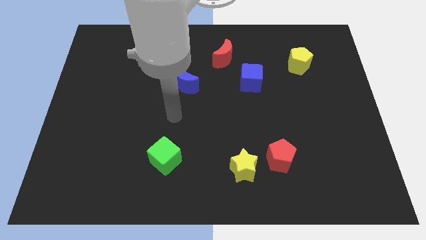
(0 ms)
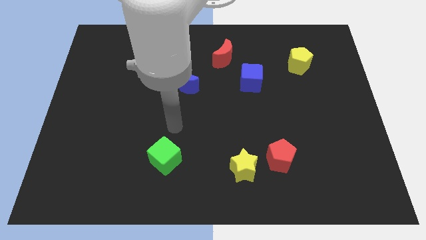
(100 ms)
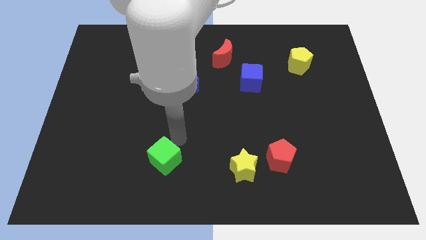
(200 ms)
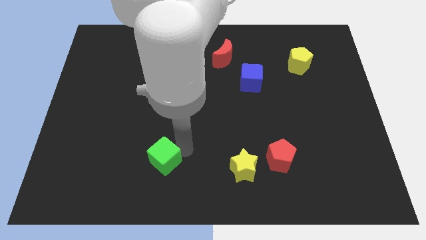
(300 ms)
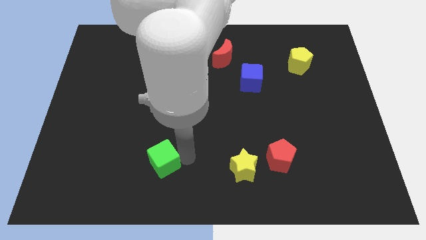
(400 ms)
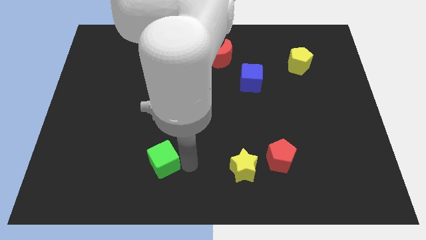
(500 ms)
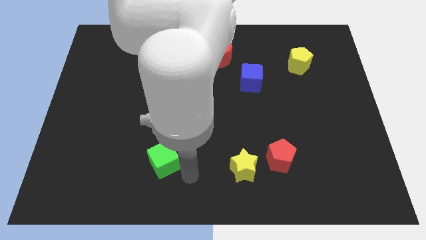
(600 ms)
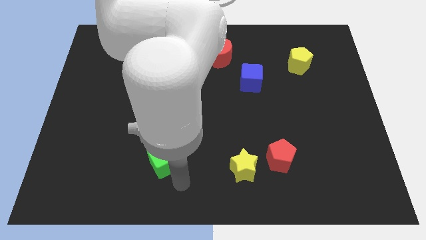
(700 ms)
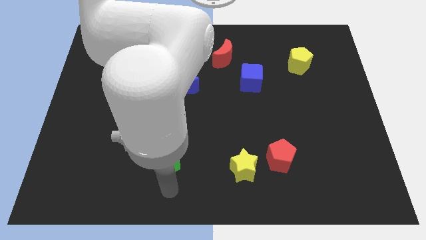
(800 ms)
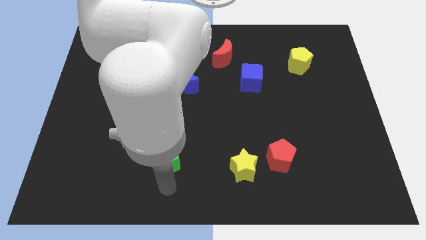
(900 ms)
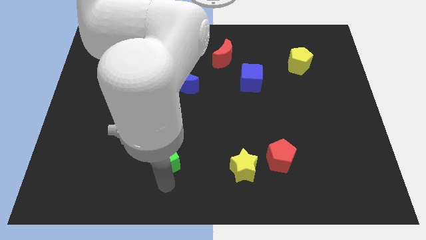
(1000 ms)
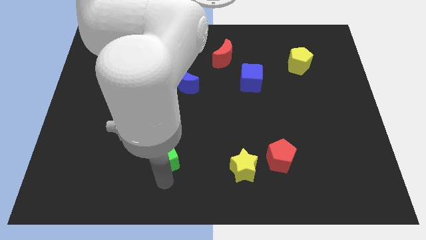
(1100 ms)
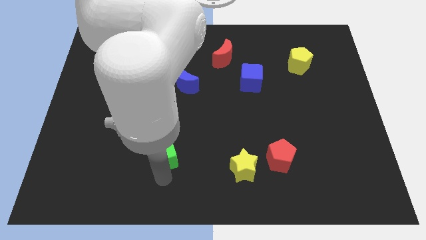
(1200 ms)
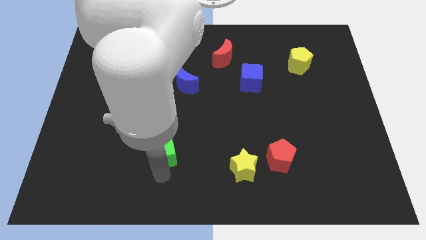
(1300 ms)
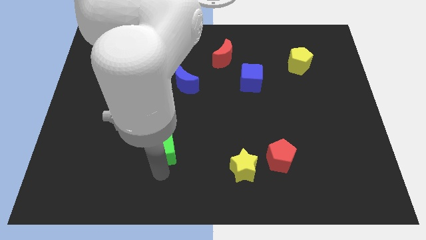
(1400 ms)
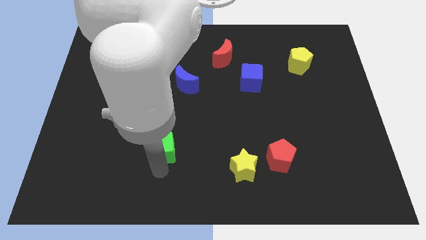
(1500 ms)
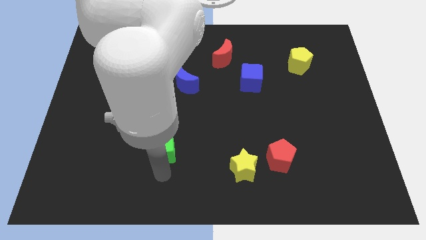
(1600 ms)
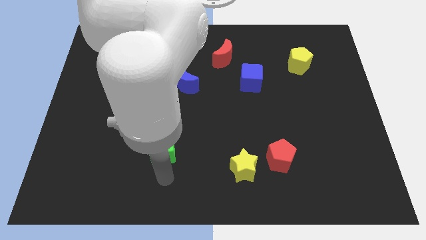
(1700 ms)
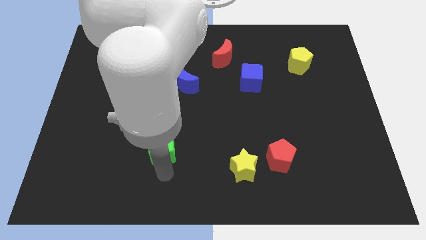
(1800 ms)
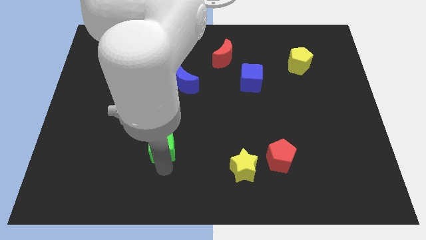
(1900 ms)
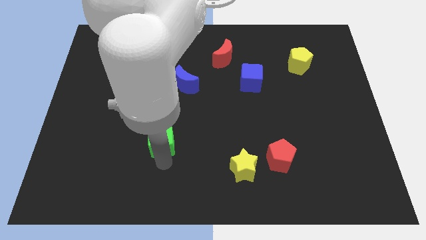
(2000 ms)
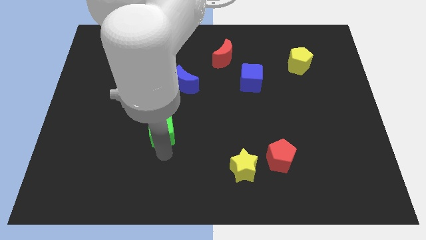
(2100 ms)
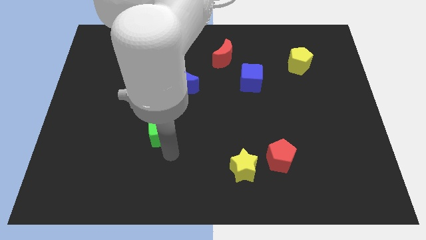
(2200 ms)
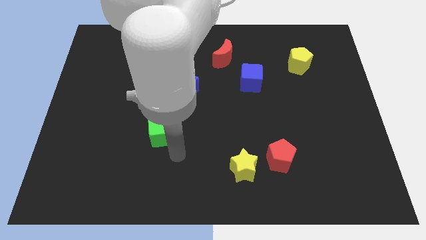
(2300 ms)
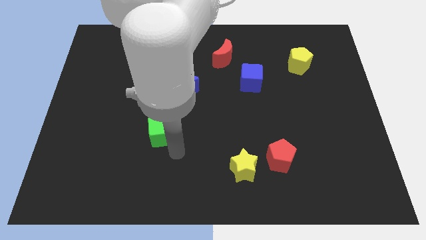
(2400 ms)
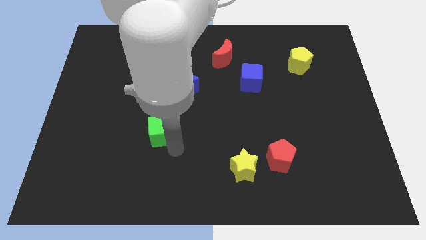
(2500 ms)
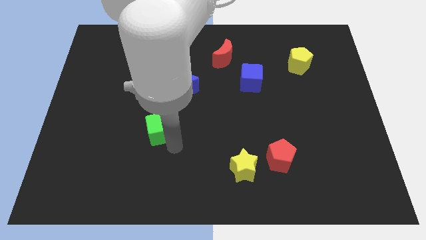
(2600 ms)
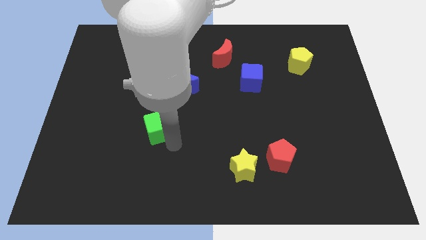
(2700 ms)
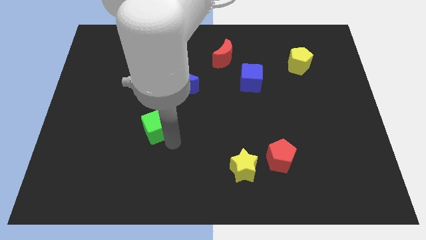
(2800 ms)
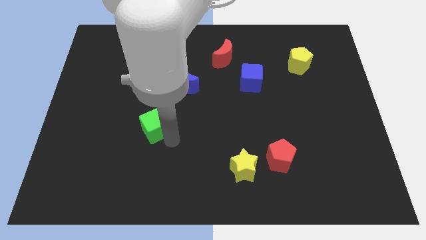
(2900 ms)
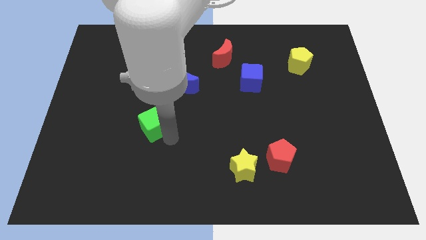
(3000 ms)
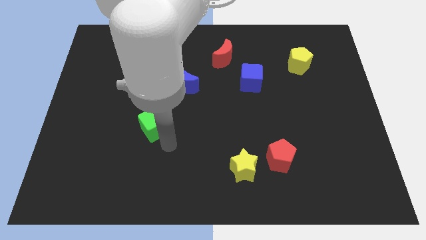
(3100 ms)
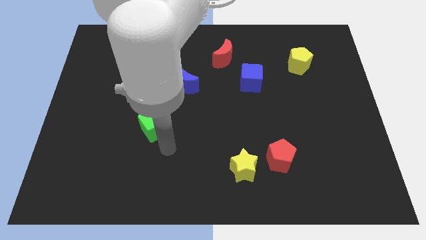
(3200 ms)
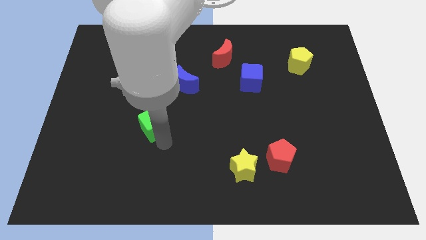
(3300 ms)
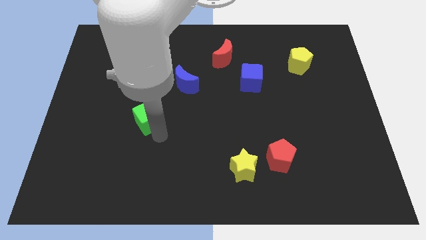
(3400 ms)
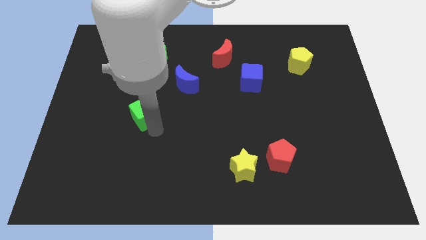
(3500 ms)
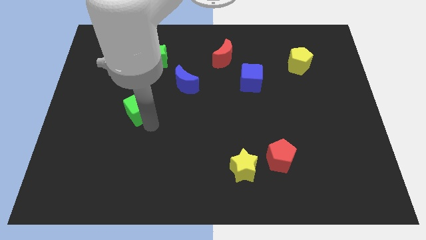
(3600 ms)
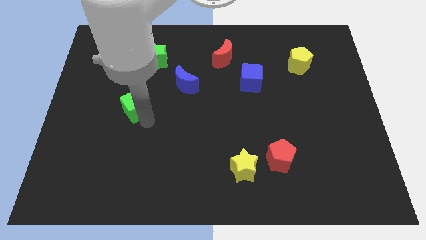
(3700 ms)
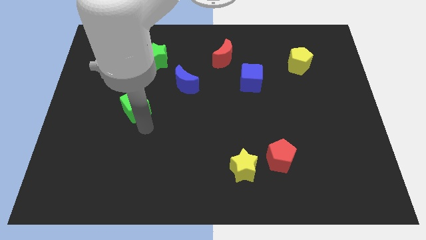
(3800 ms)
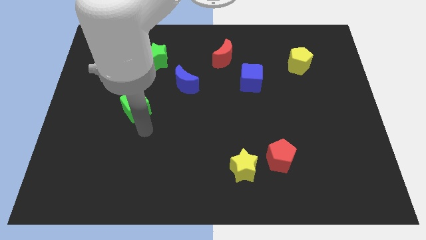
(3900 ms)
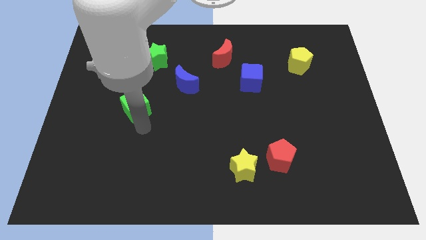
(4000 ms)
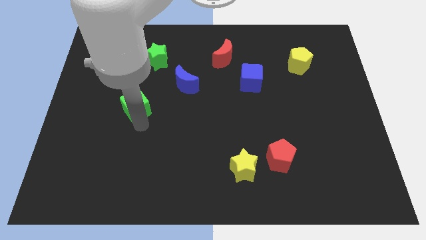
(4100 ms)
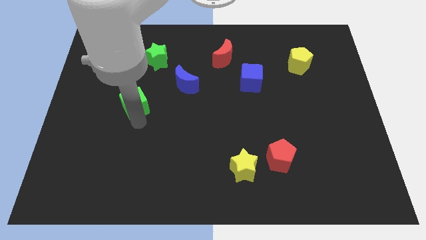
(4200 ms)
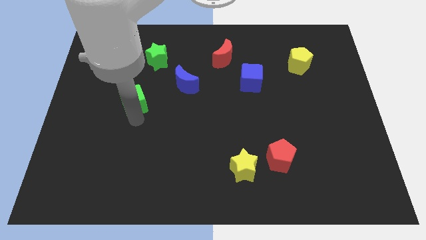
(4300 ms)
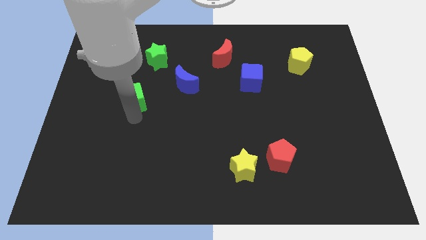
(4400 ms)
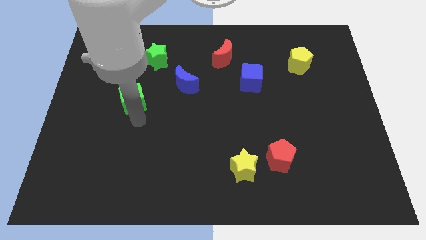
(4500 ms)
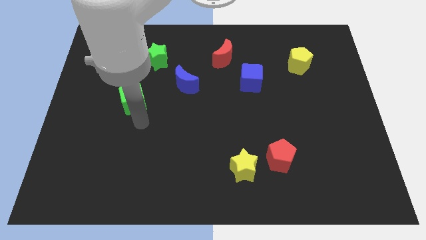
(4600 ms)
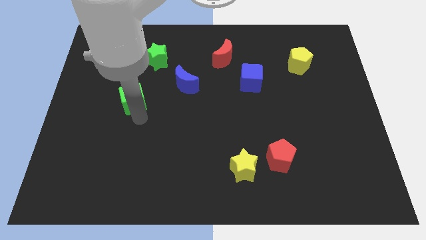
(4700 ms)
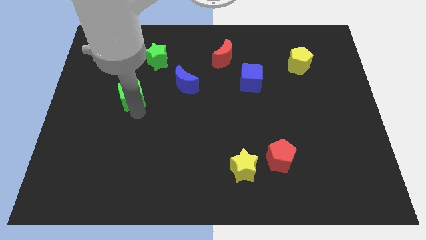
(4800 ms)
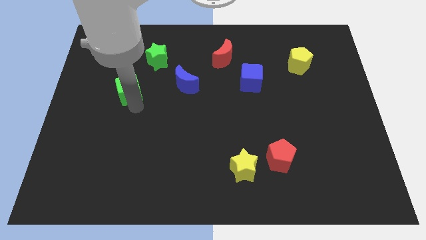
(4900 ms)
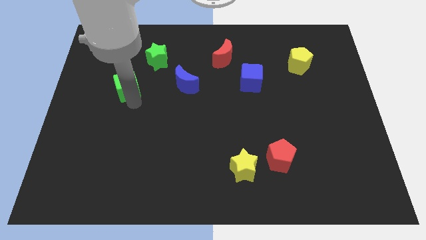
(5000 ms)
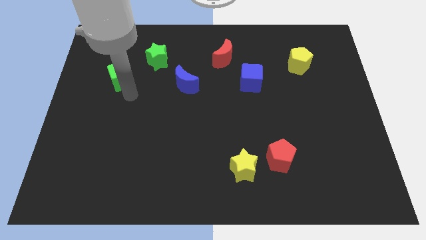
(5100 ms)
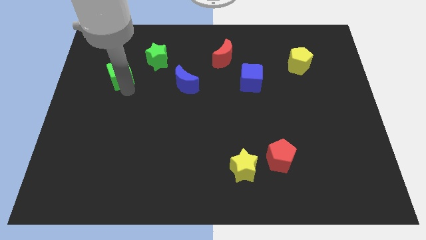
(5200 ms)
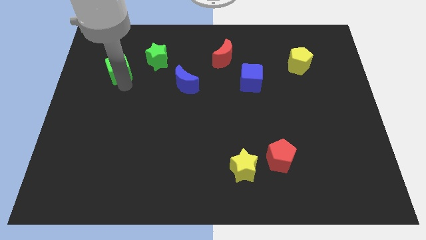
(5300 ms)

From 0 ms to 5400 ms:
slide the green cube to the left side of the green star
